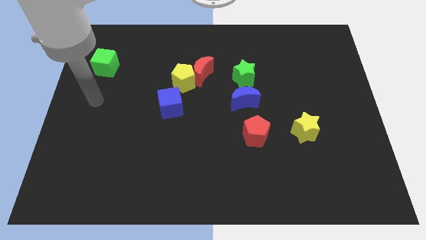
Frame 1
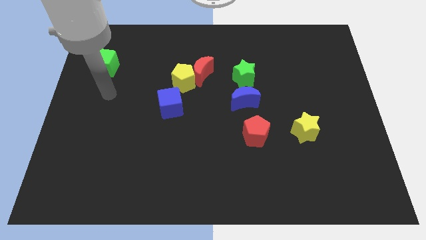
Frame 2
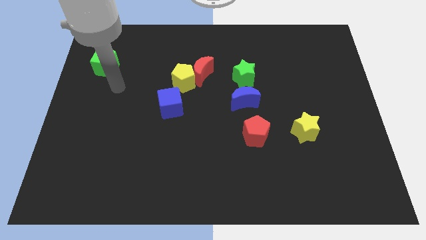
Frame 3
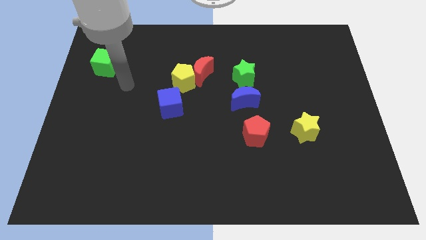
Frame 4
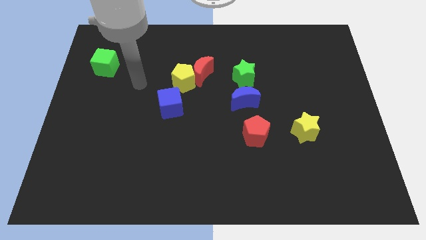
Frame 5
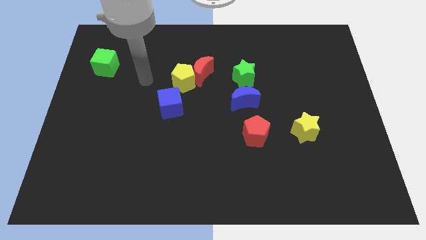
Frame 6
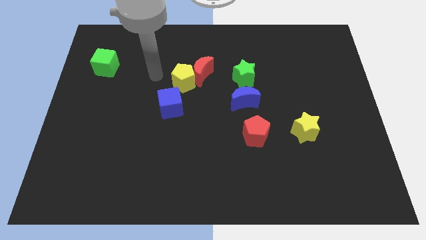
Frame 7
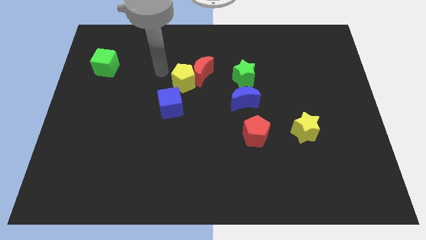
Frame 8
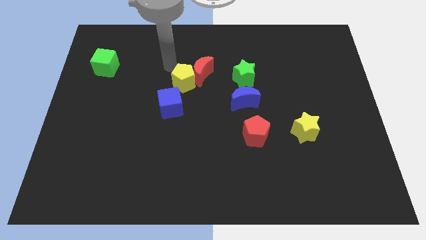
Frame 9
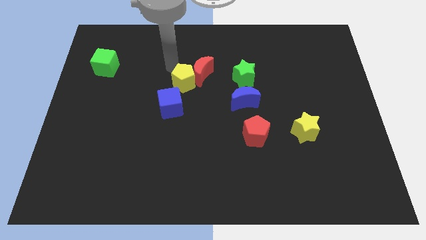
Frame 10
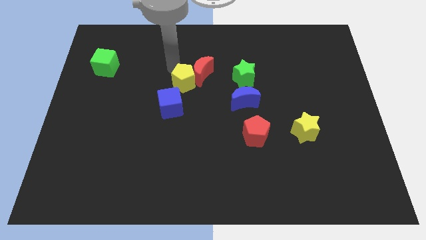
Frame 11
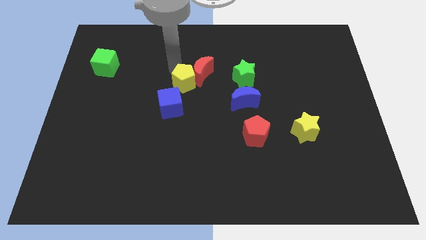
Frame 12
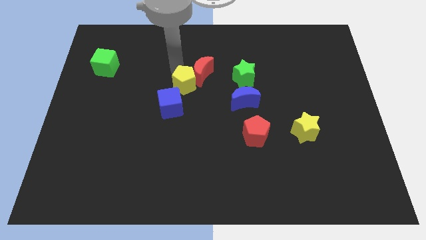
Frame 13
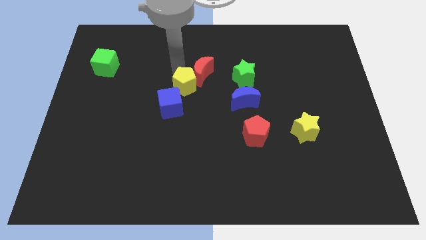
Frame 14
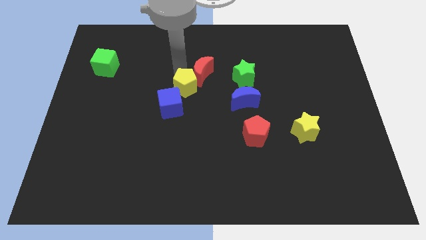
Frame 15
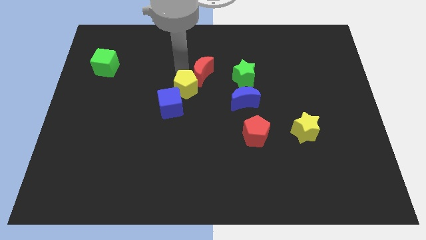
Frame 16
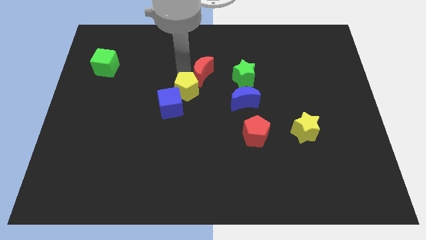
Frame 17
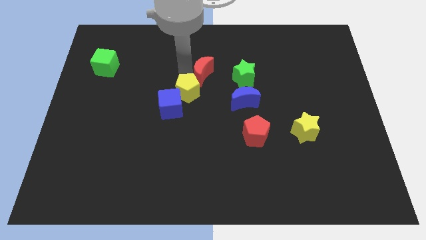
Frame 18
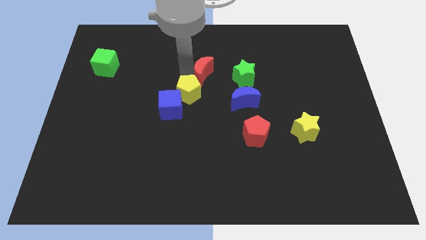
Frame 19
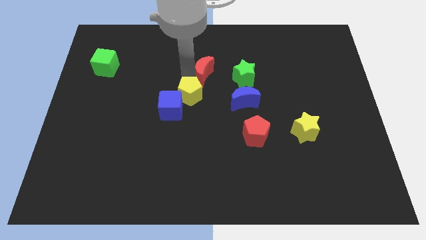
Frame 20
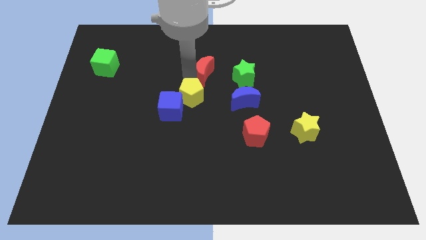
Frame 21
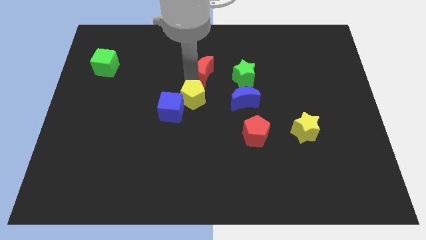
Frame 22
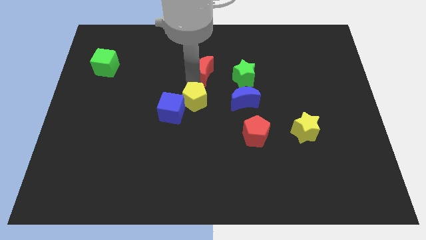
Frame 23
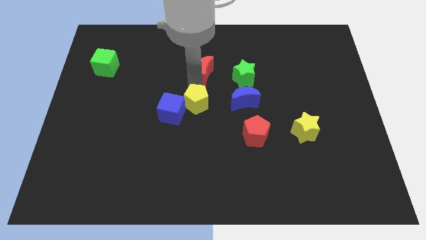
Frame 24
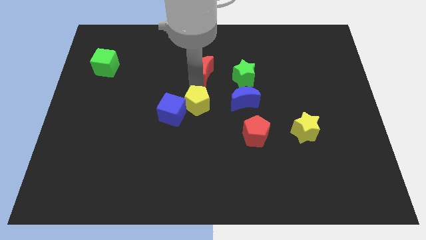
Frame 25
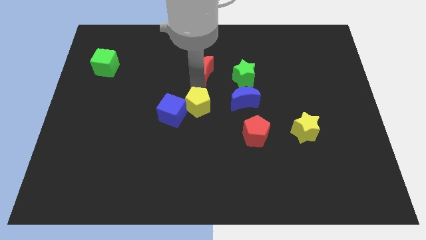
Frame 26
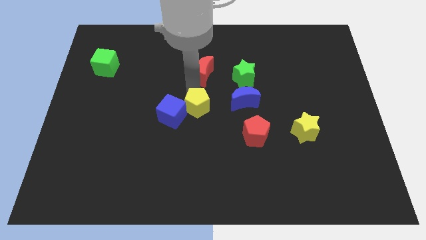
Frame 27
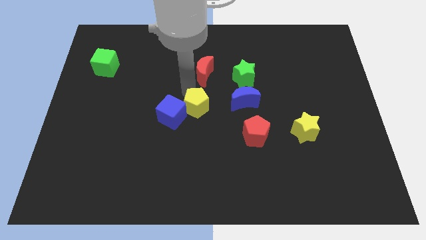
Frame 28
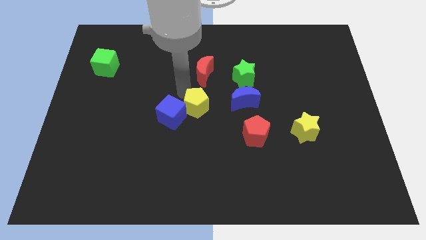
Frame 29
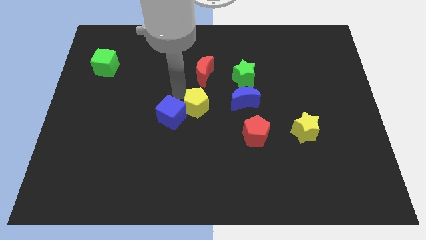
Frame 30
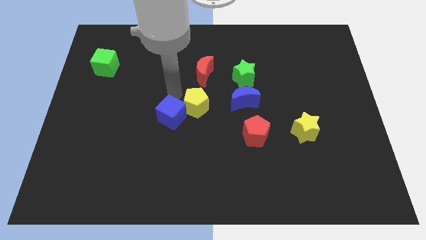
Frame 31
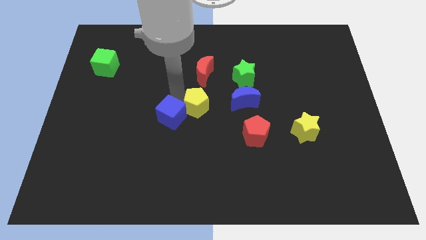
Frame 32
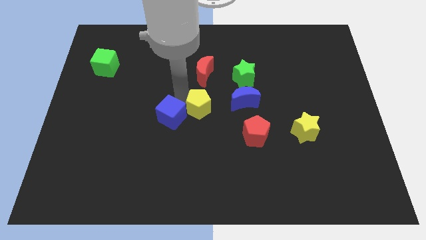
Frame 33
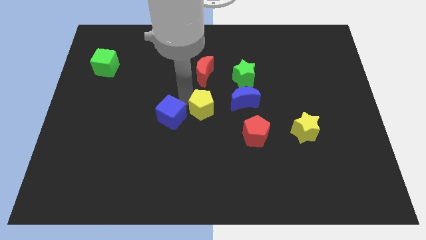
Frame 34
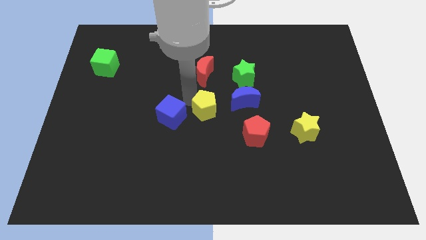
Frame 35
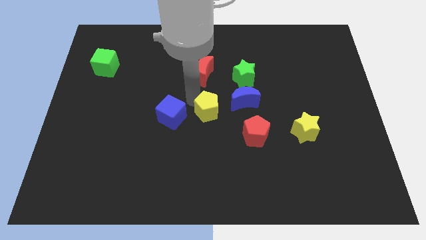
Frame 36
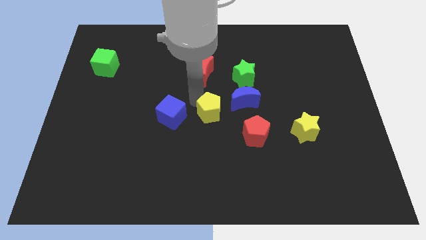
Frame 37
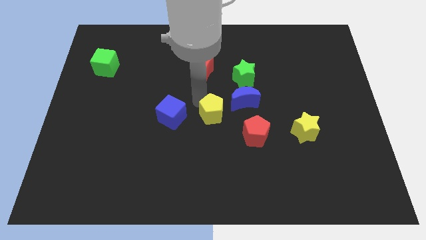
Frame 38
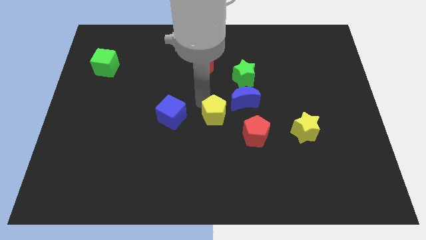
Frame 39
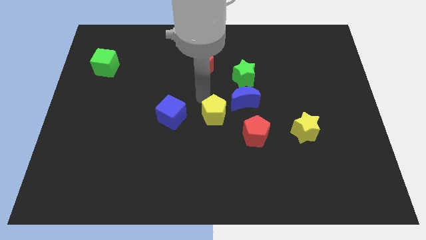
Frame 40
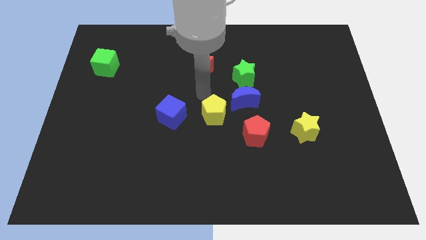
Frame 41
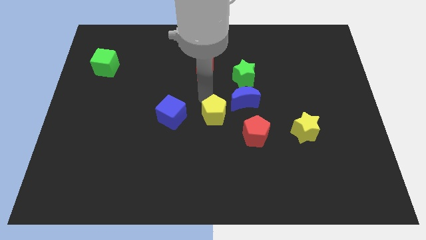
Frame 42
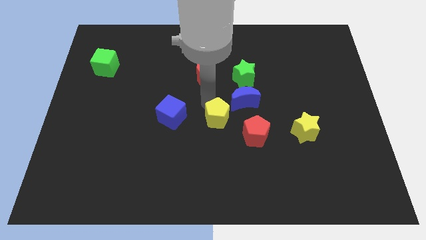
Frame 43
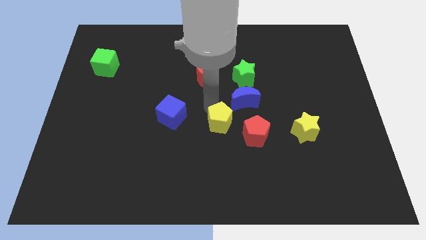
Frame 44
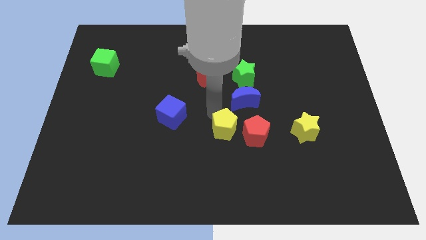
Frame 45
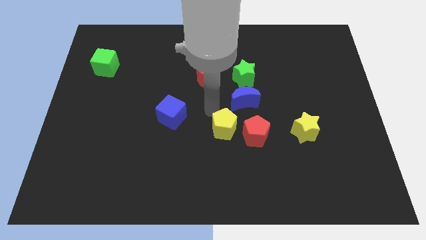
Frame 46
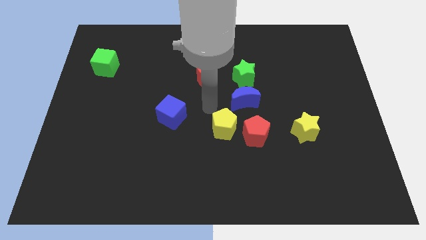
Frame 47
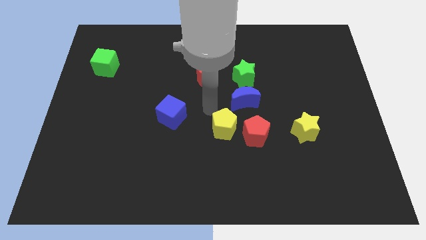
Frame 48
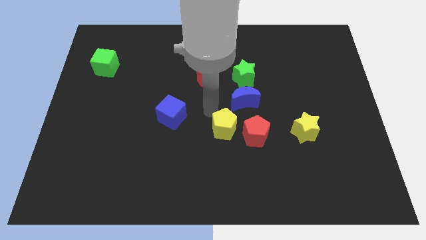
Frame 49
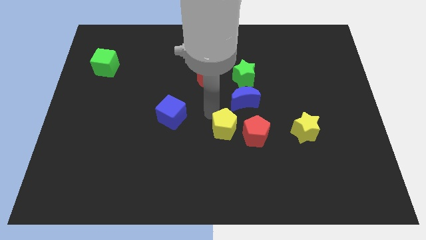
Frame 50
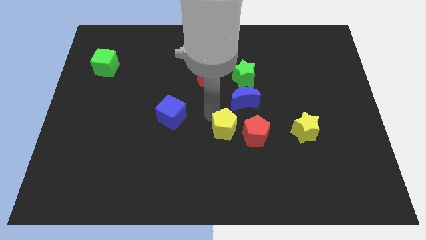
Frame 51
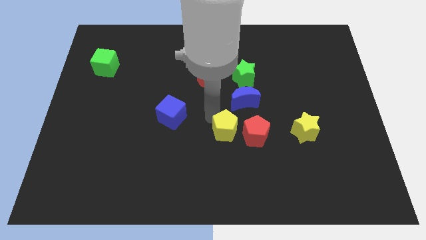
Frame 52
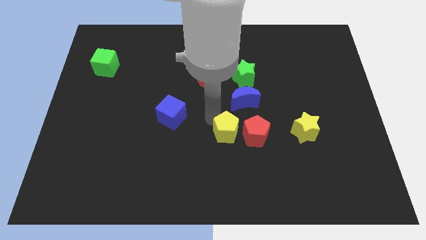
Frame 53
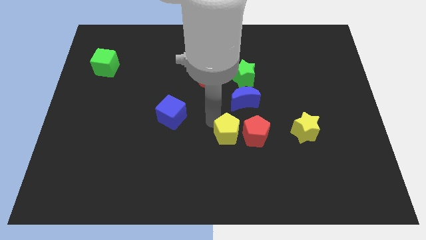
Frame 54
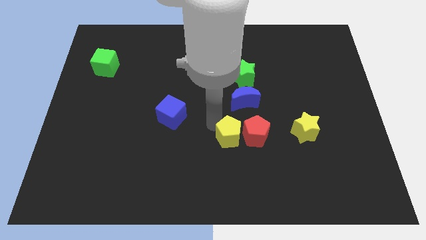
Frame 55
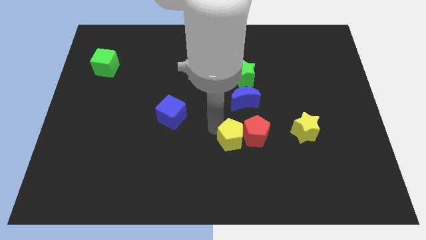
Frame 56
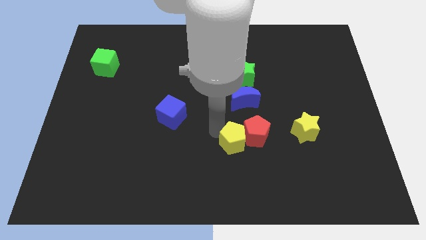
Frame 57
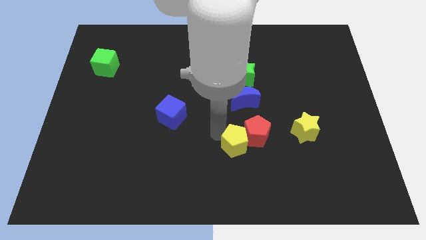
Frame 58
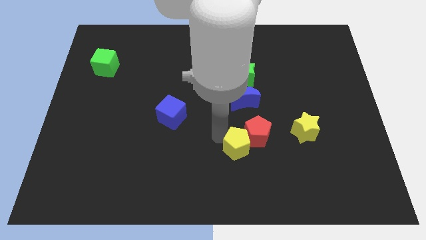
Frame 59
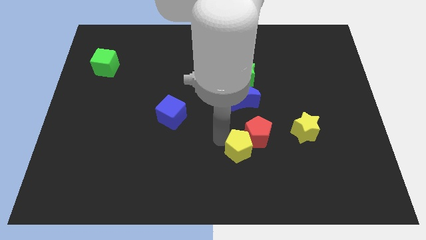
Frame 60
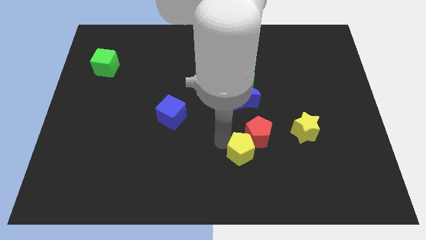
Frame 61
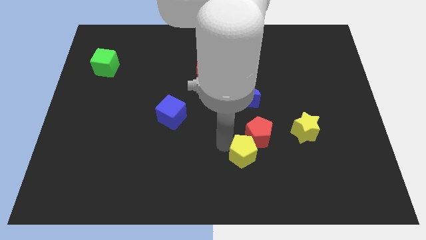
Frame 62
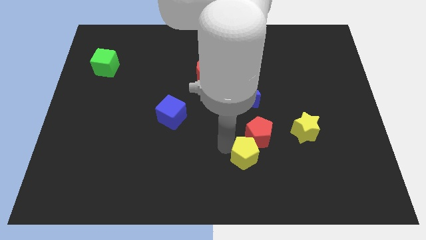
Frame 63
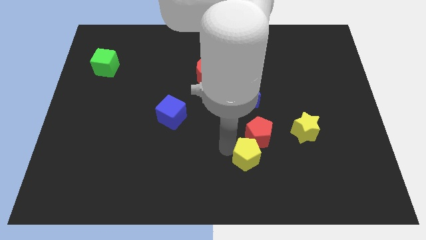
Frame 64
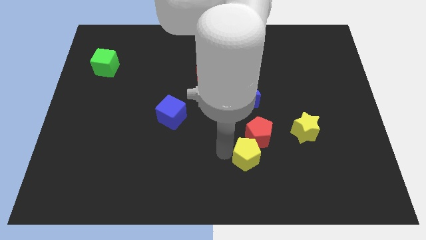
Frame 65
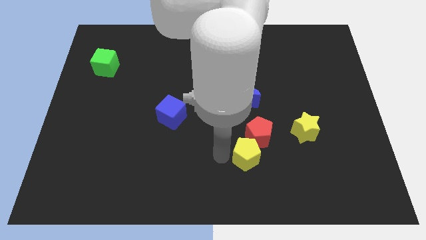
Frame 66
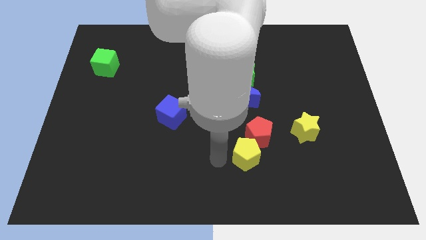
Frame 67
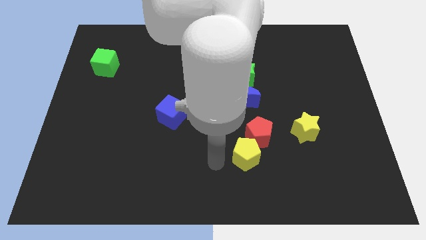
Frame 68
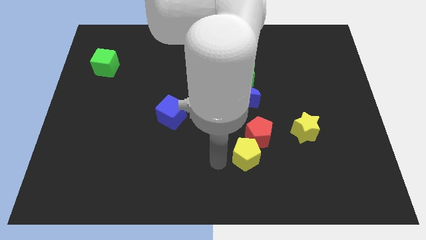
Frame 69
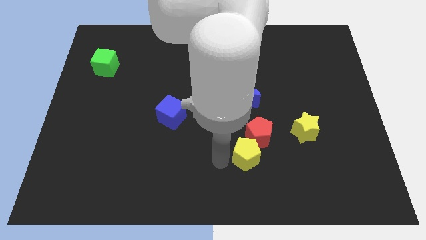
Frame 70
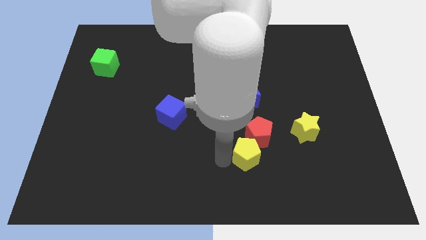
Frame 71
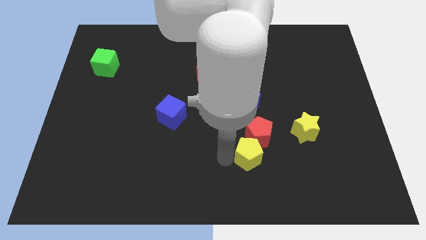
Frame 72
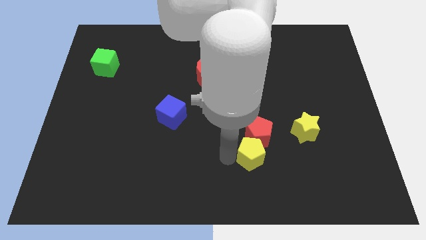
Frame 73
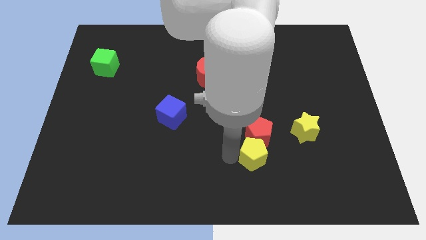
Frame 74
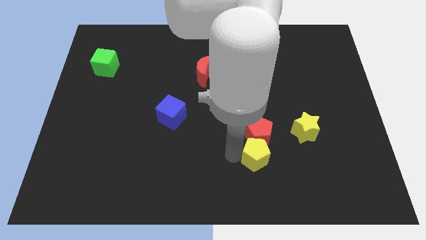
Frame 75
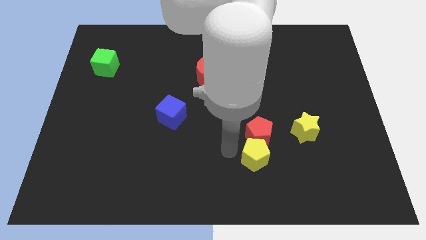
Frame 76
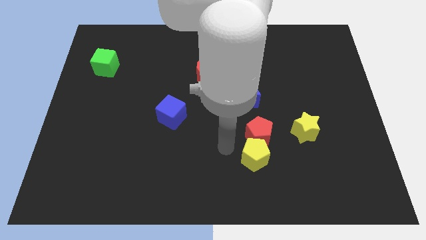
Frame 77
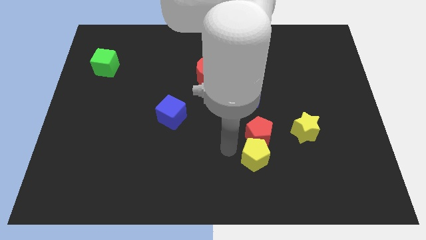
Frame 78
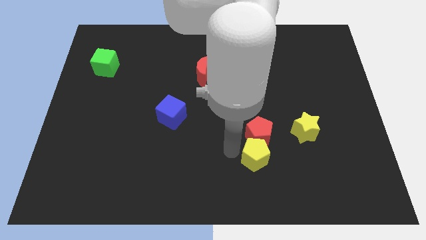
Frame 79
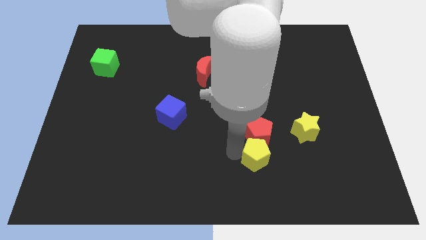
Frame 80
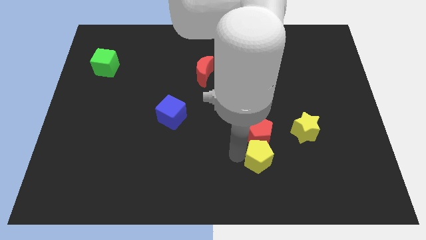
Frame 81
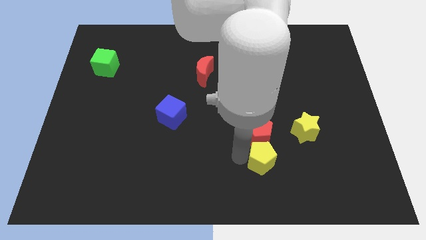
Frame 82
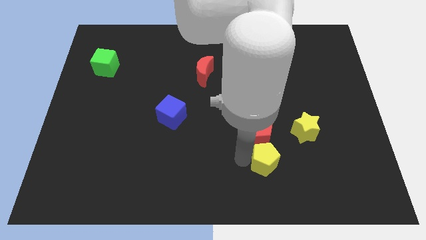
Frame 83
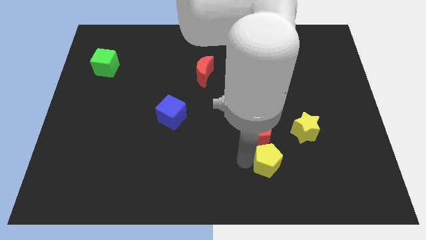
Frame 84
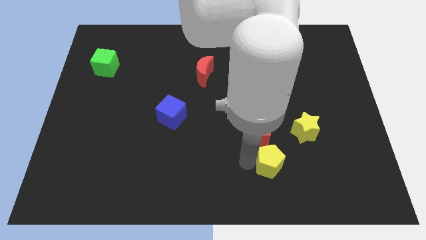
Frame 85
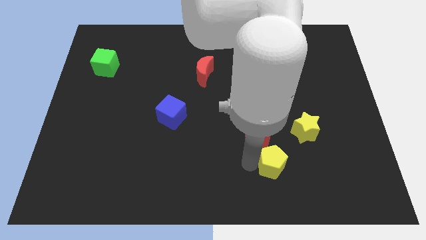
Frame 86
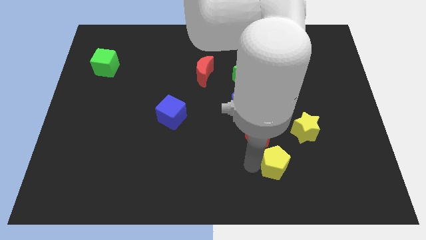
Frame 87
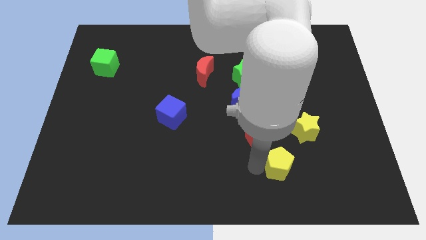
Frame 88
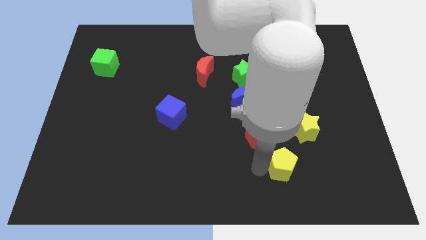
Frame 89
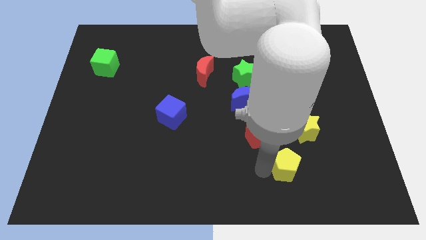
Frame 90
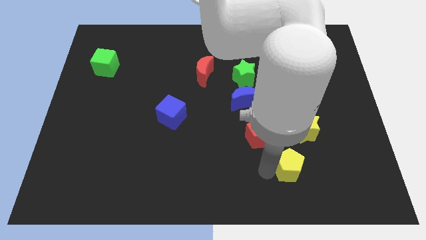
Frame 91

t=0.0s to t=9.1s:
slide the yellow pentagon to the bottom of the yellow star
